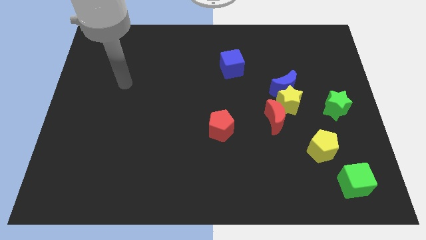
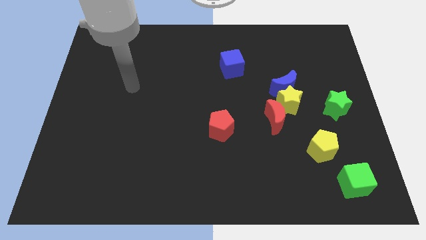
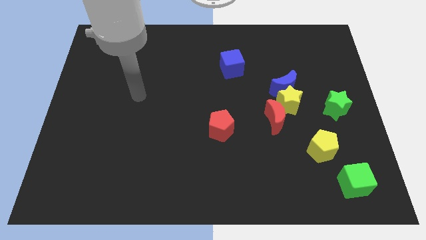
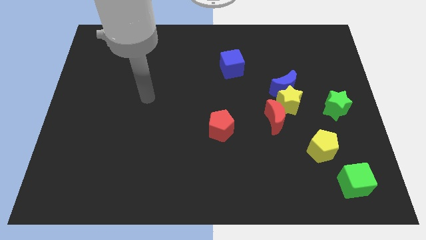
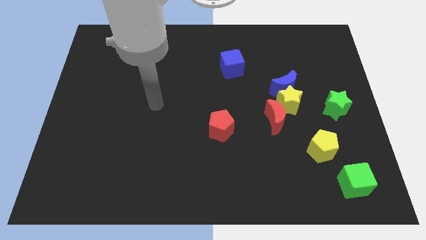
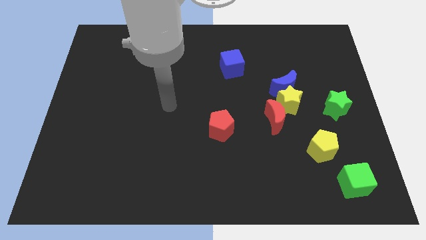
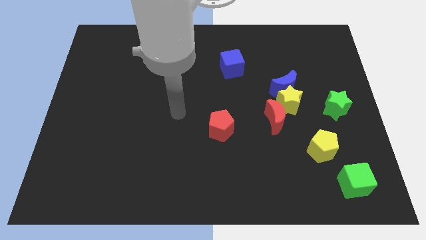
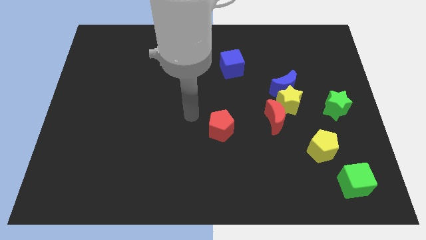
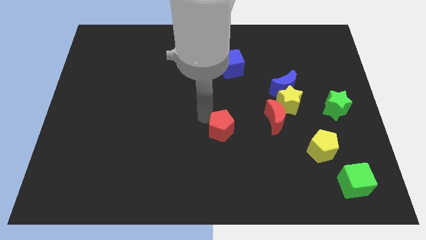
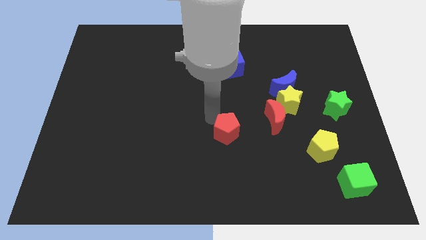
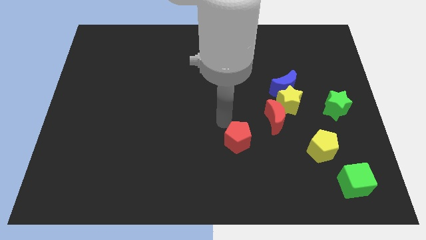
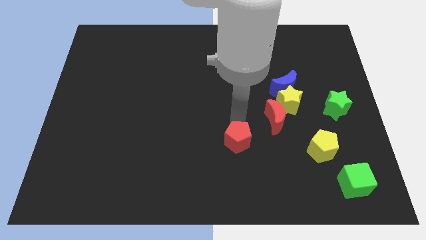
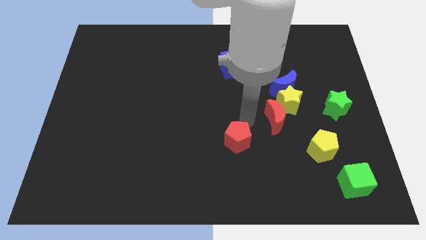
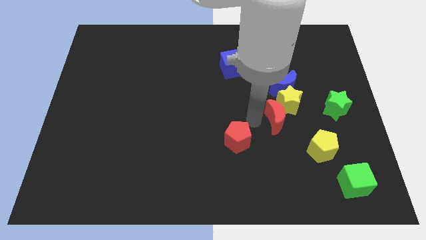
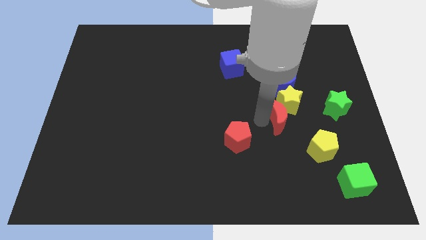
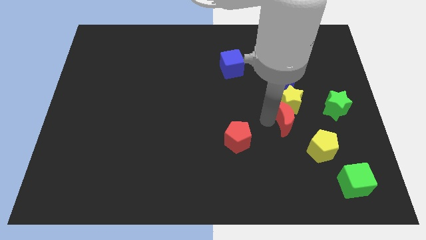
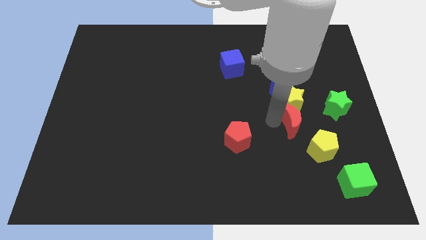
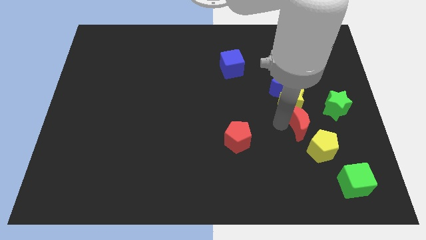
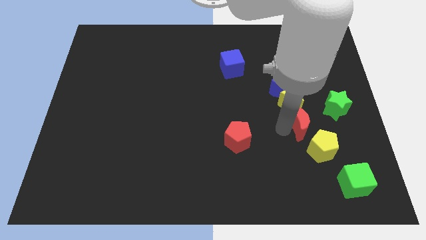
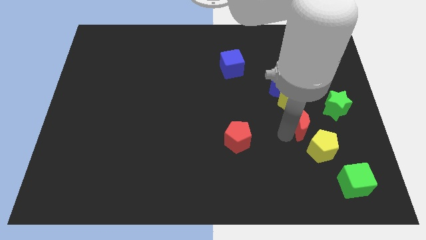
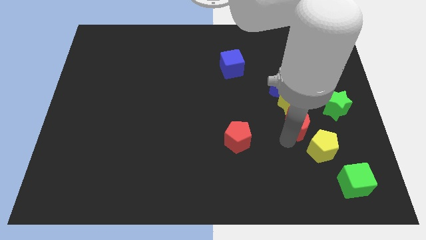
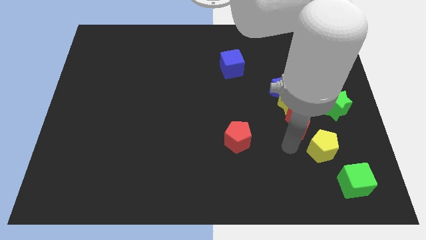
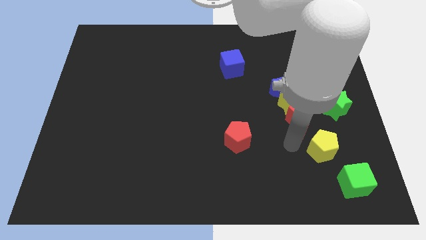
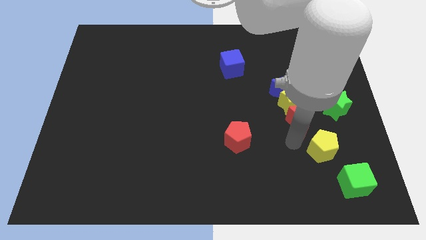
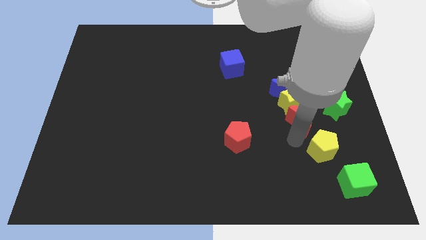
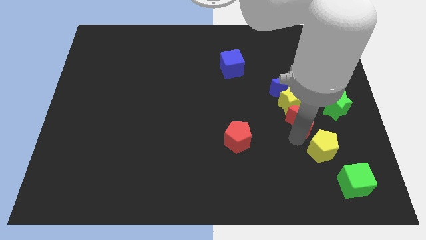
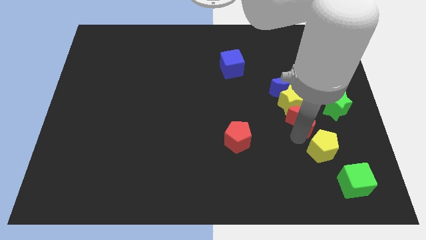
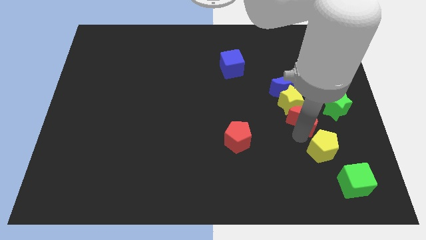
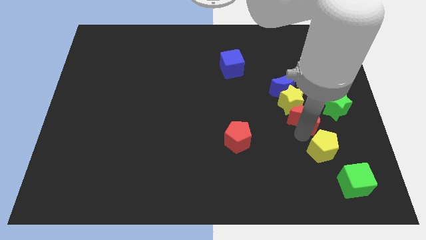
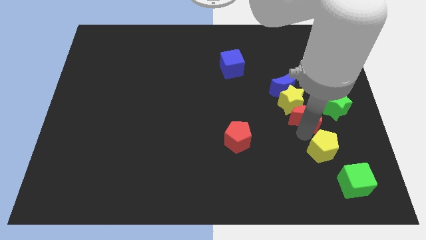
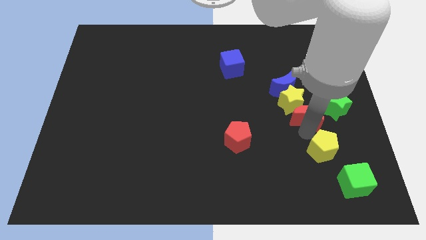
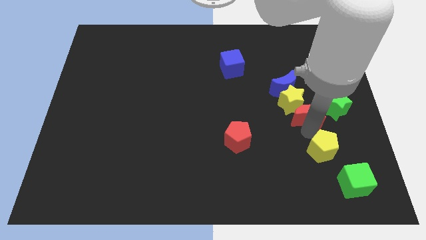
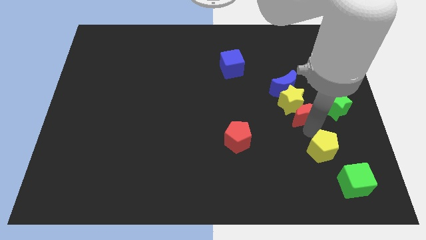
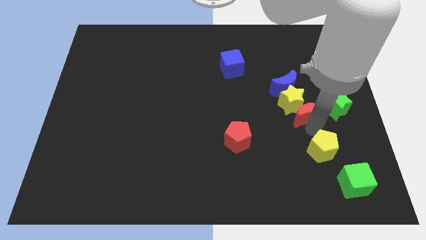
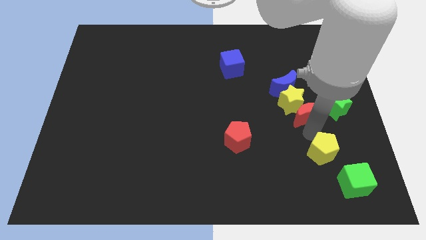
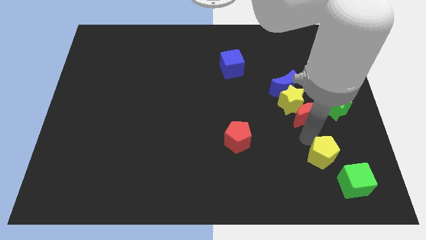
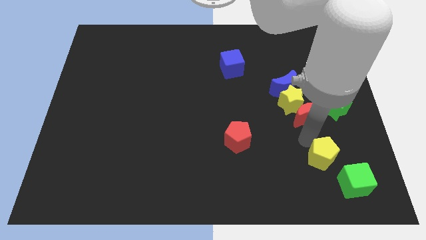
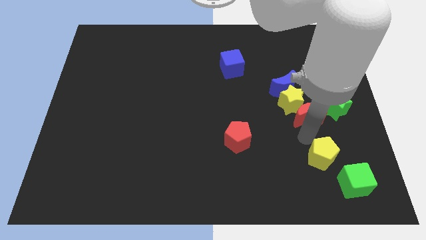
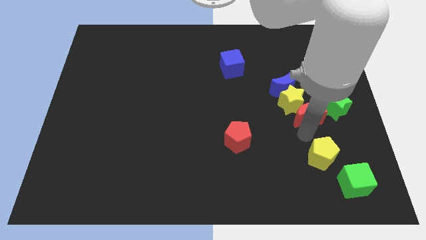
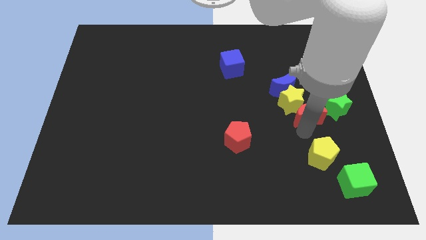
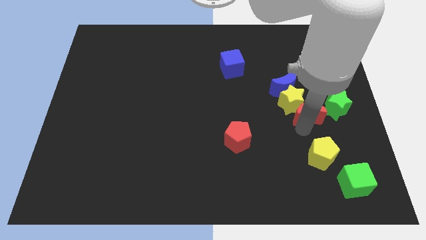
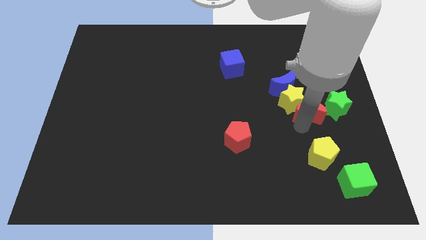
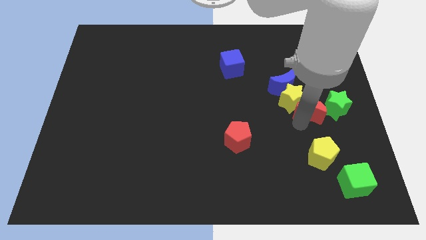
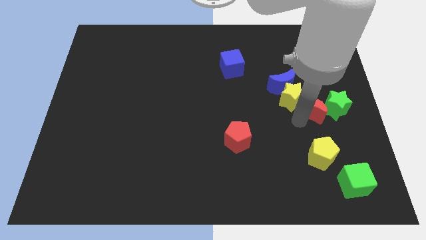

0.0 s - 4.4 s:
move the red moon somewhat up and right

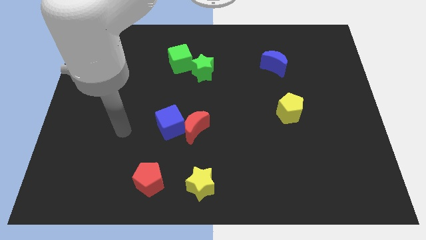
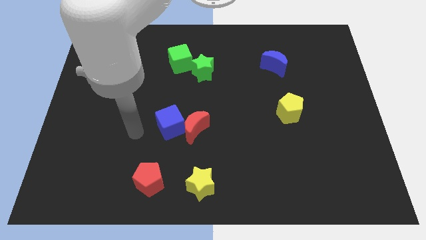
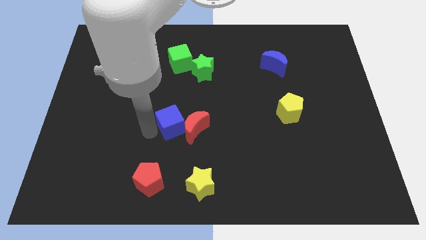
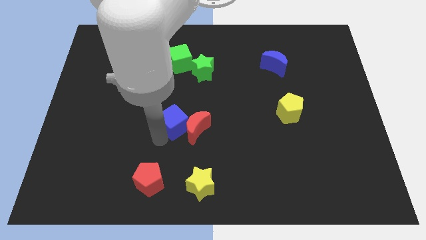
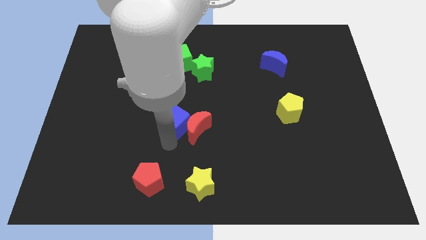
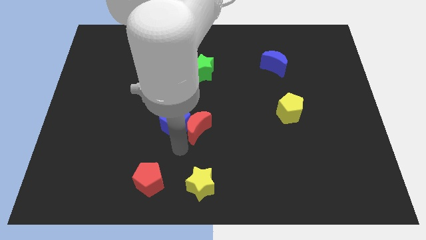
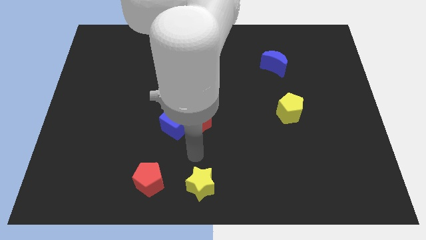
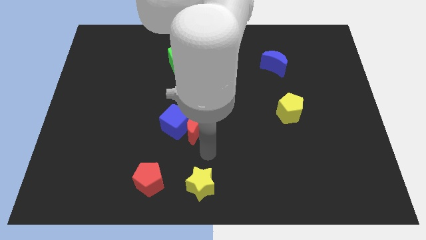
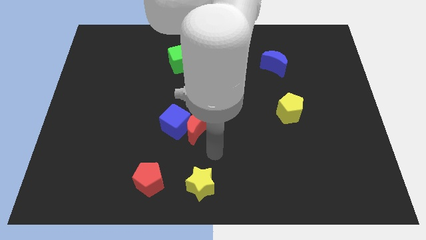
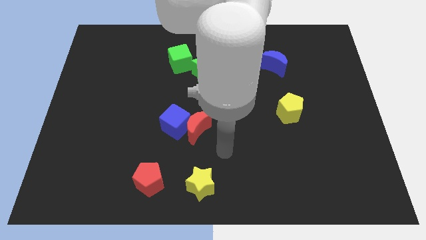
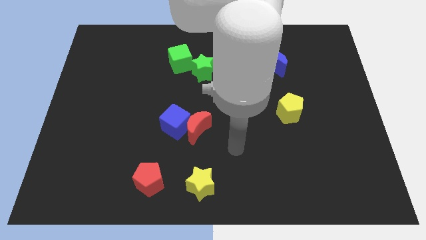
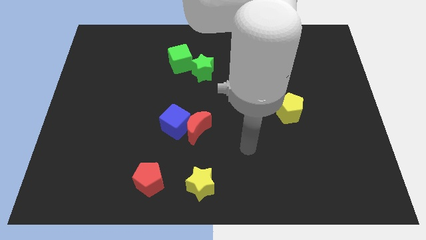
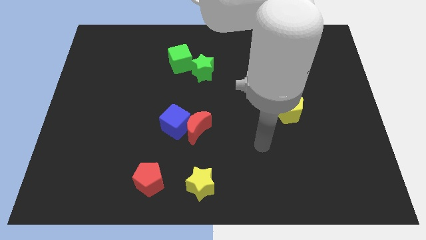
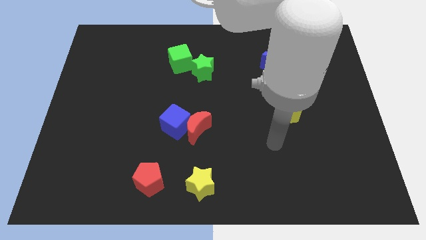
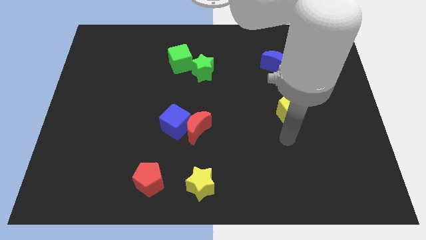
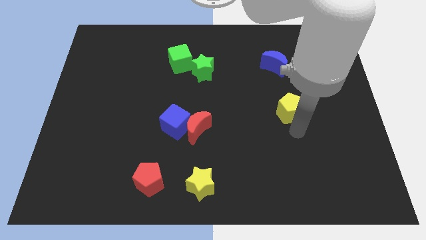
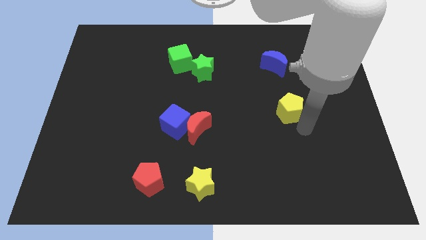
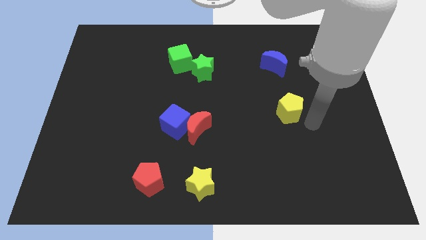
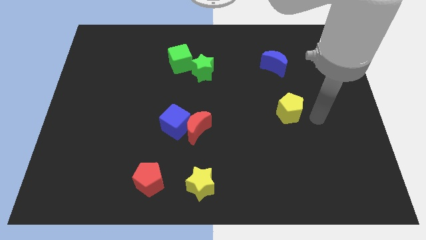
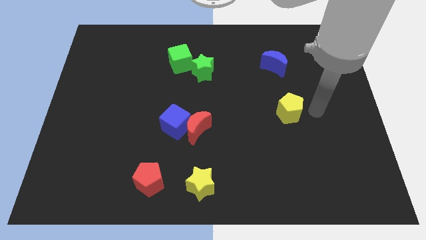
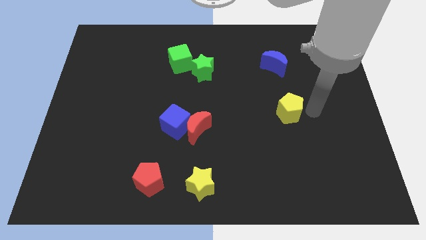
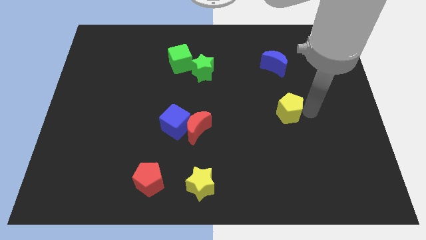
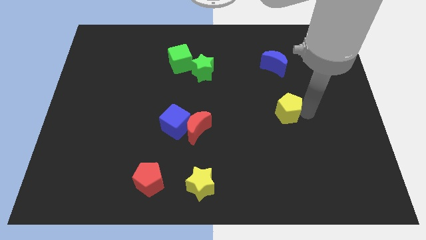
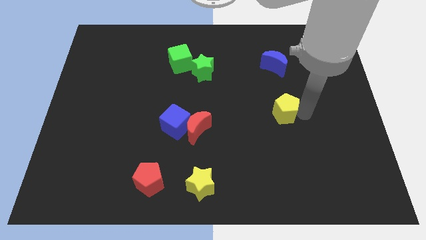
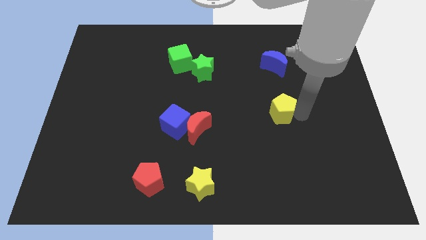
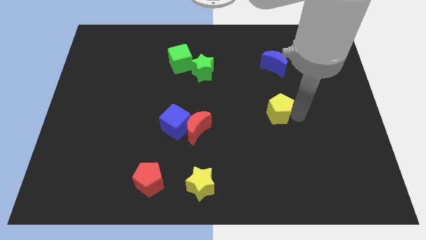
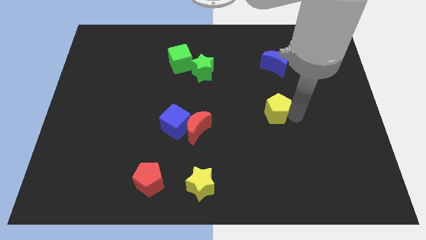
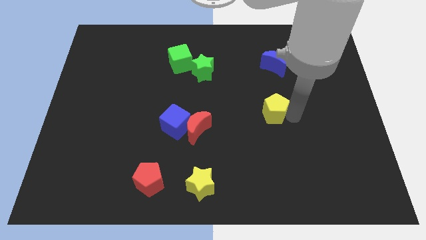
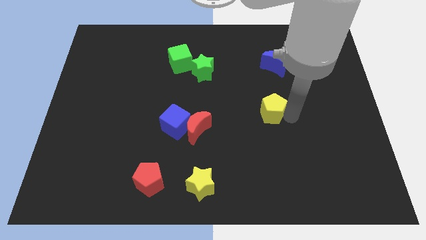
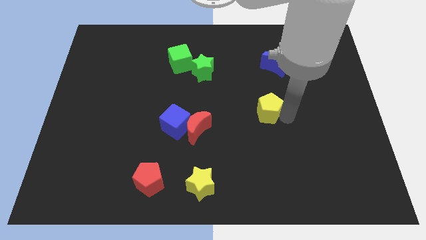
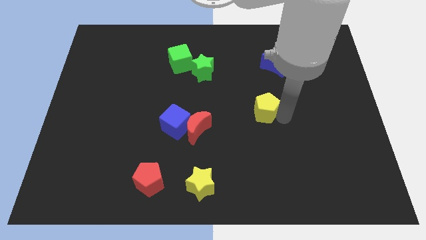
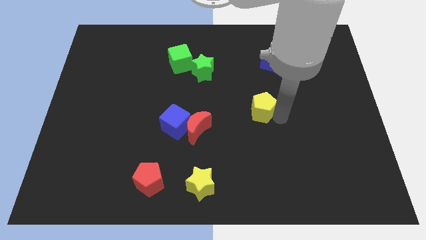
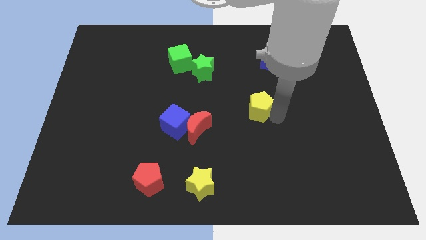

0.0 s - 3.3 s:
slide the yellow pentagon a little left

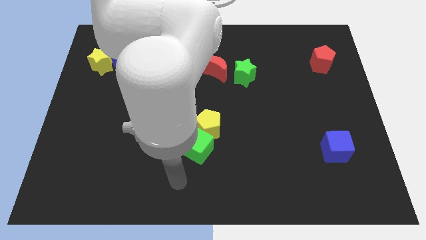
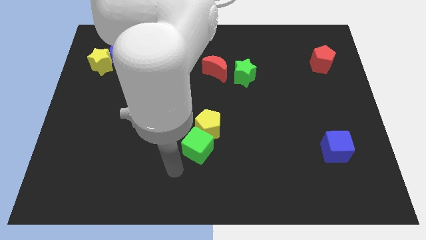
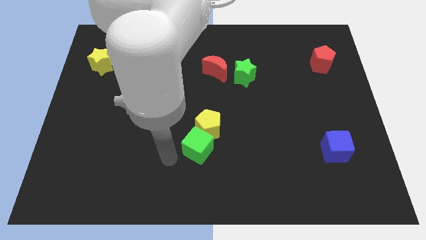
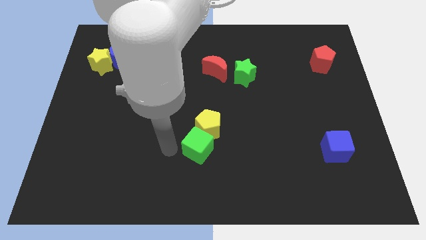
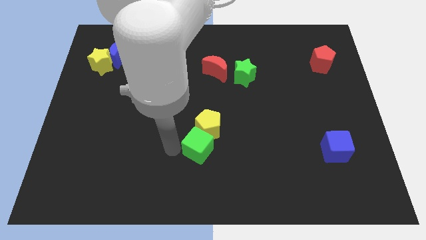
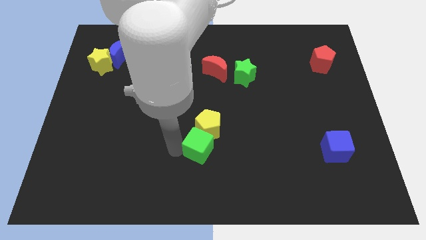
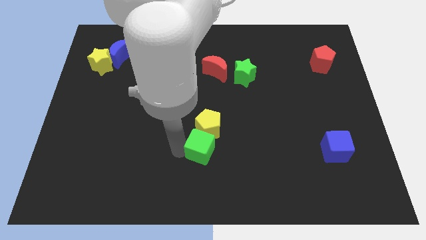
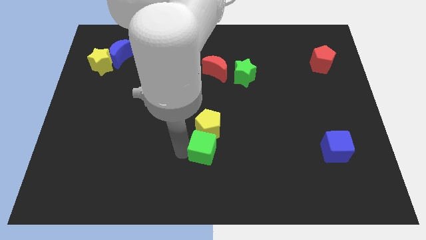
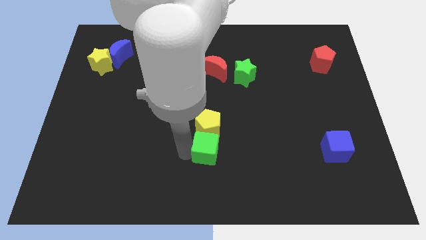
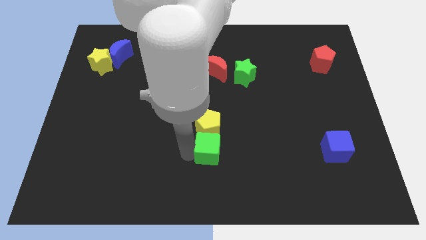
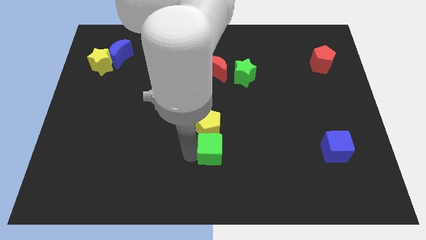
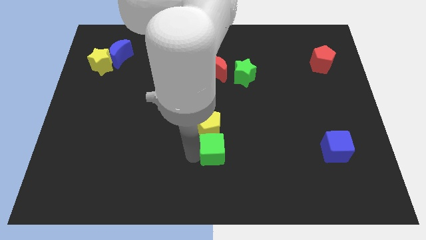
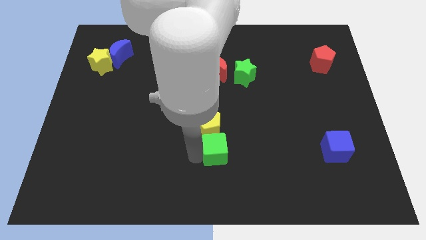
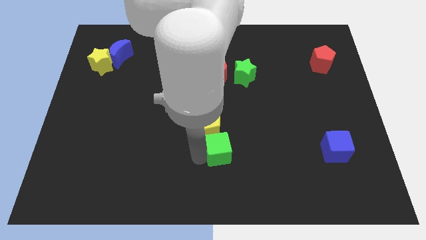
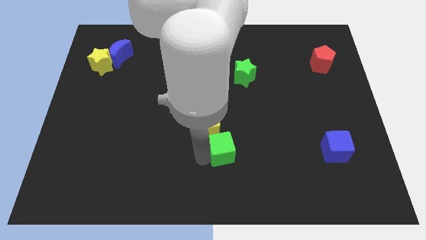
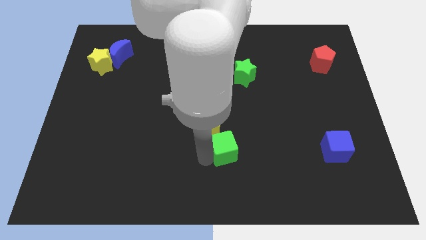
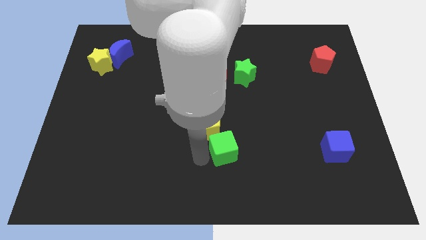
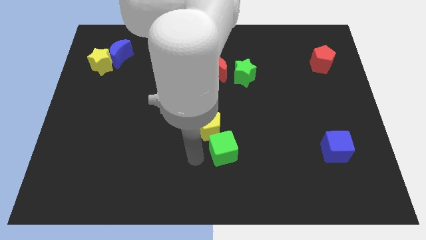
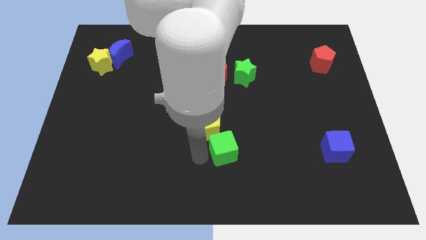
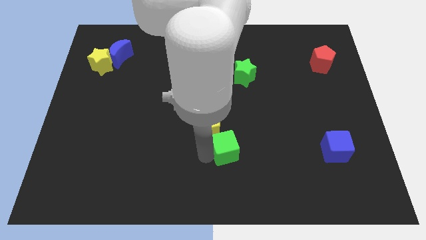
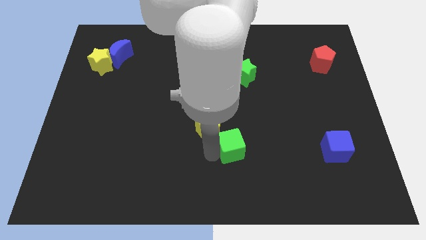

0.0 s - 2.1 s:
move the green cube somewhat to the right
